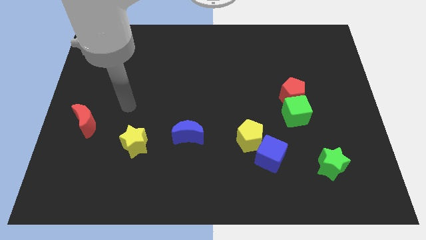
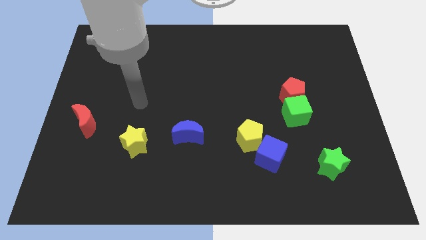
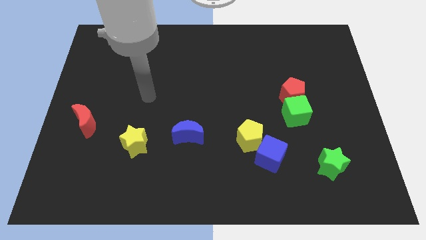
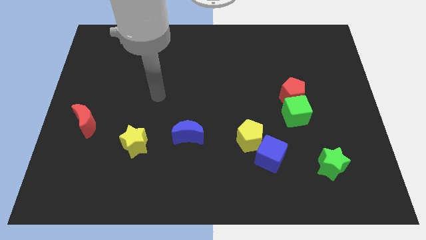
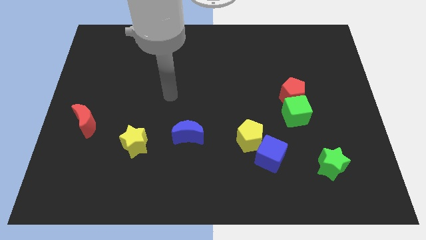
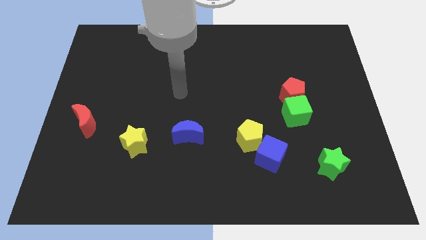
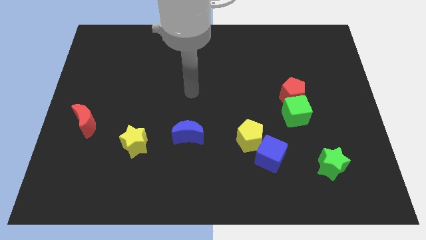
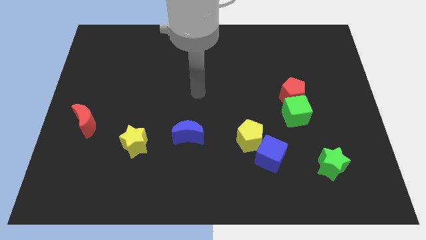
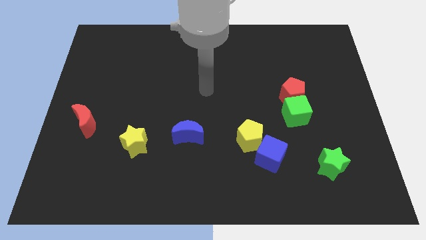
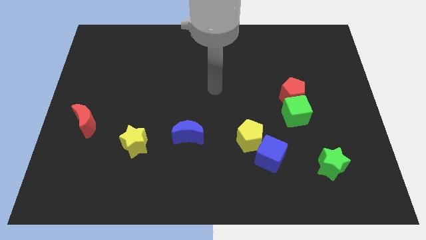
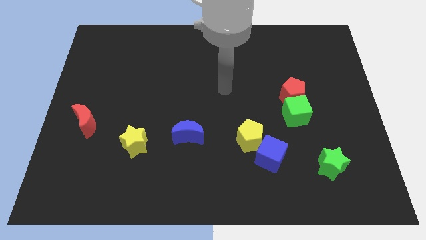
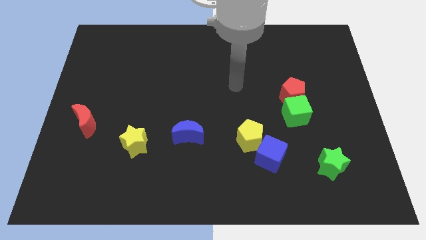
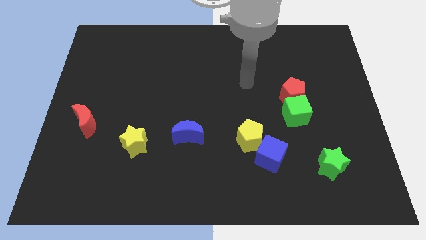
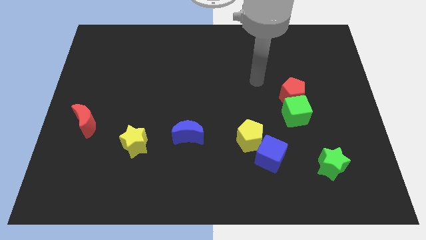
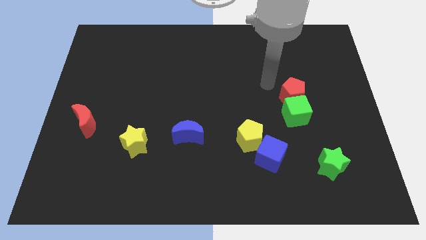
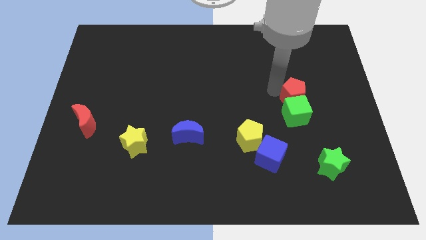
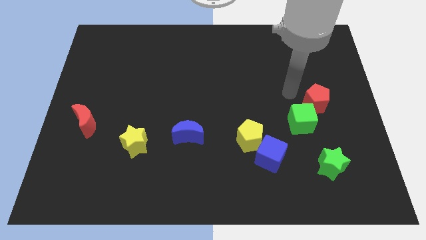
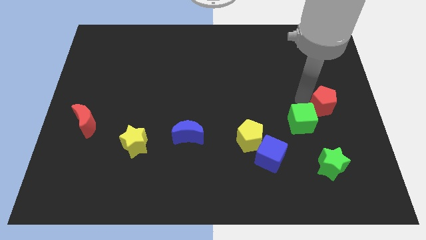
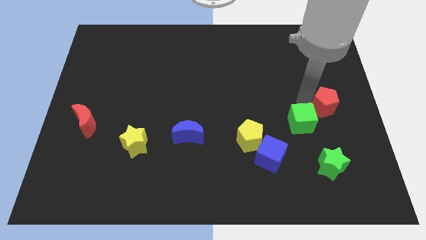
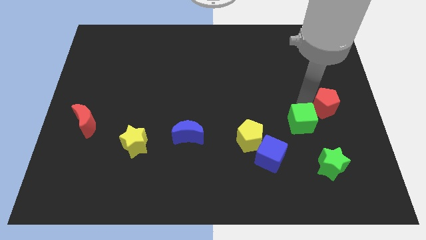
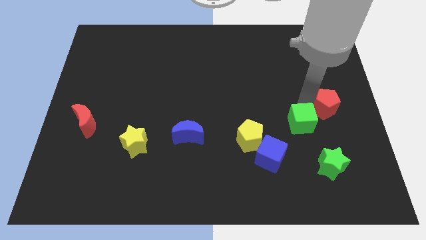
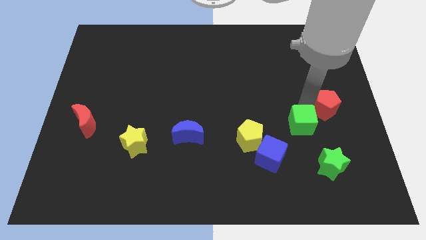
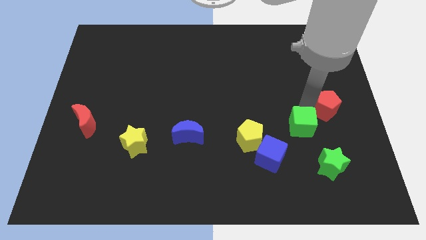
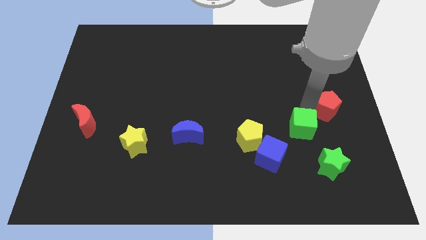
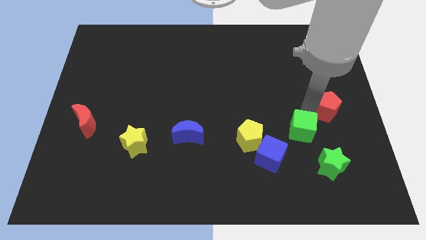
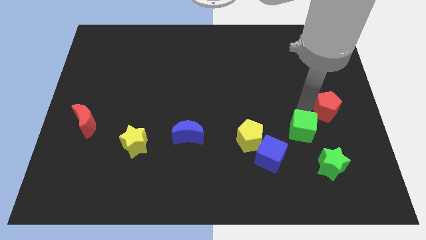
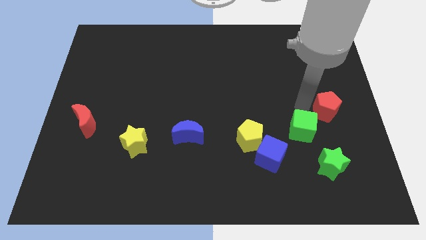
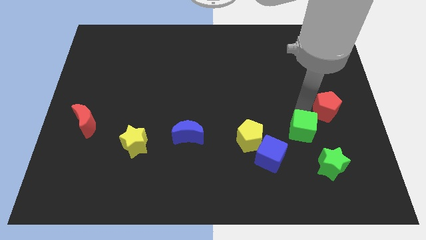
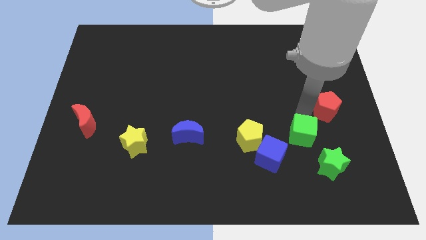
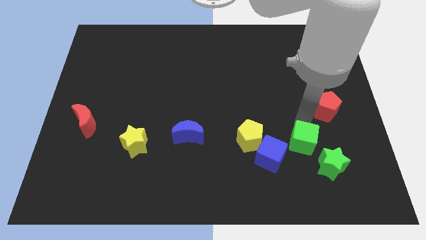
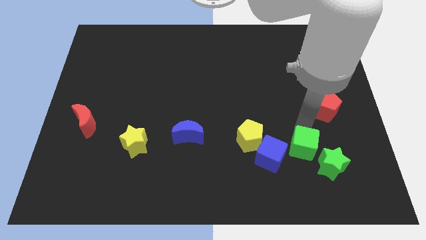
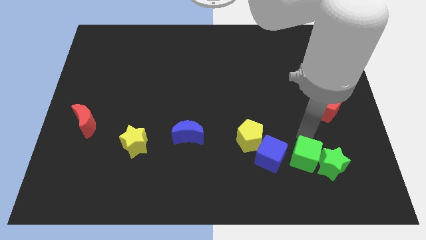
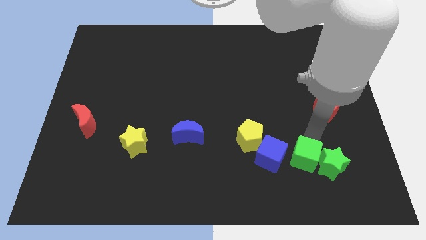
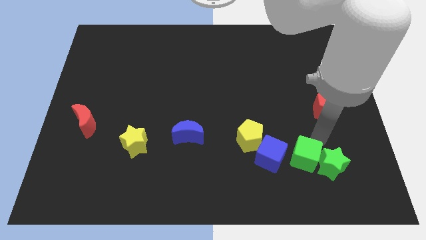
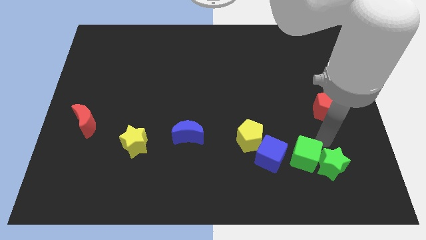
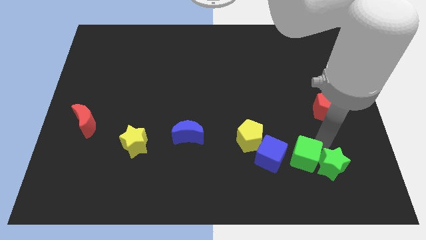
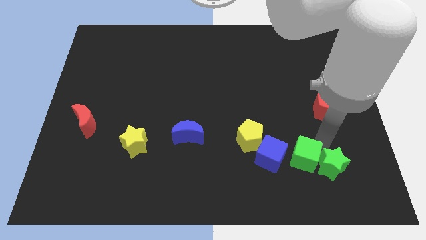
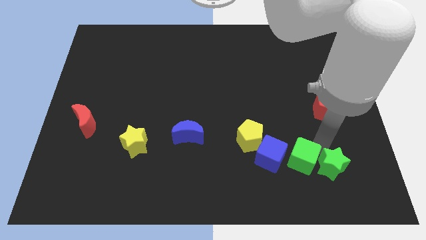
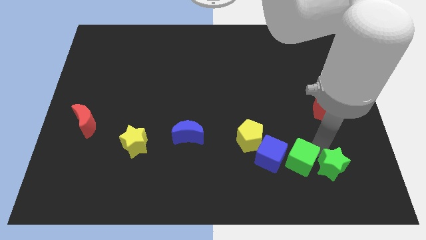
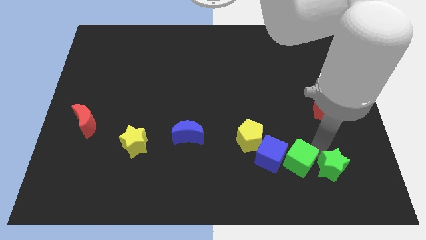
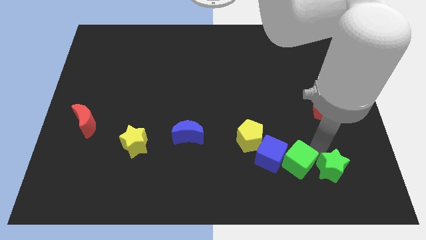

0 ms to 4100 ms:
slide the green cube diagonally downwards and left a bit

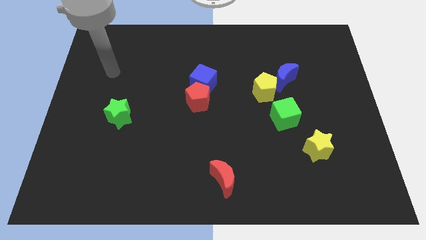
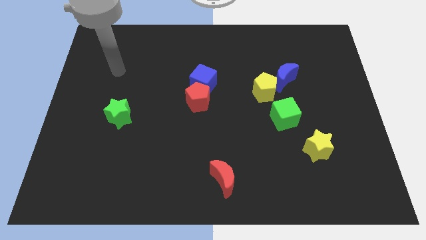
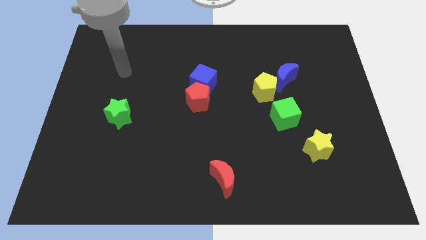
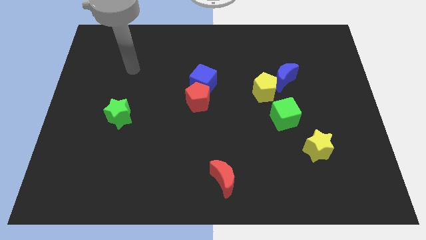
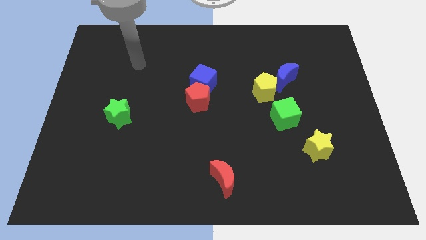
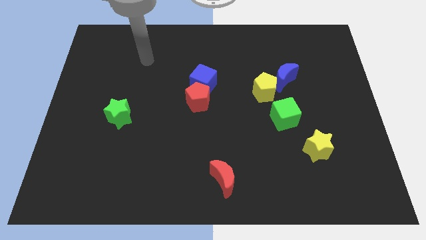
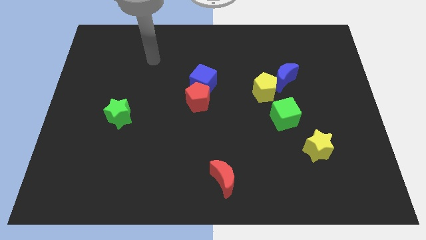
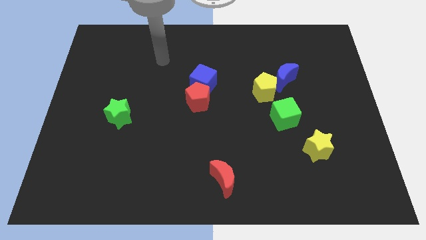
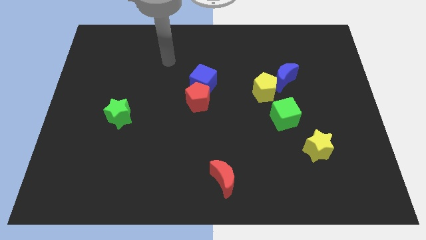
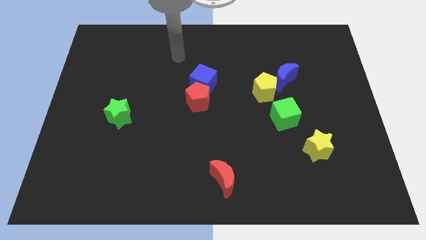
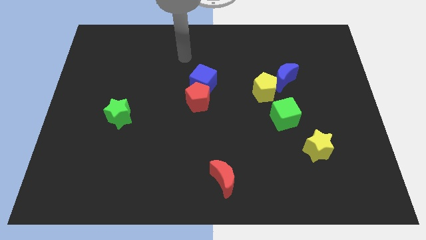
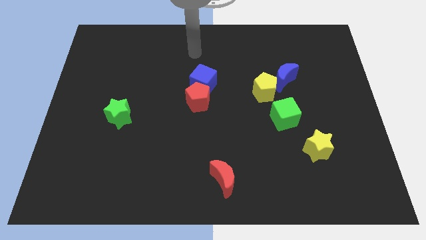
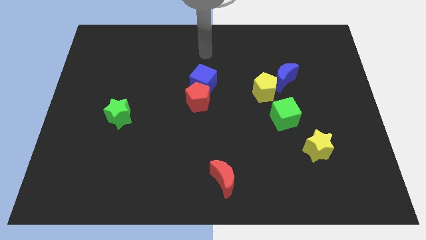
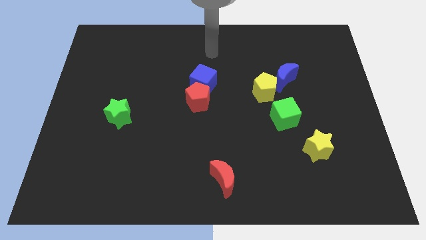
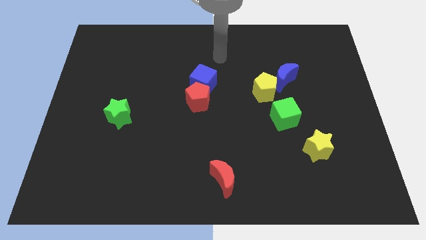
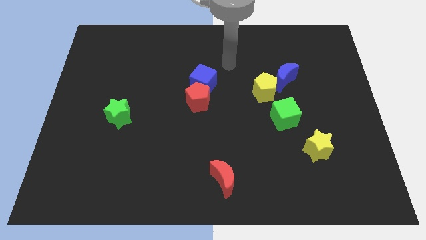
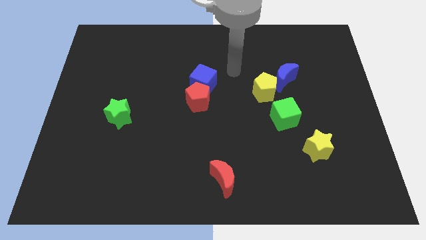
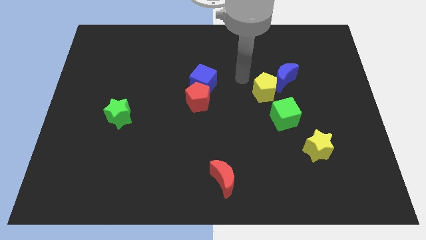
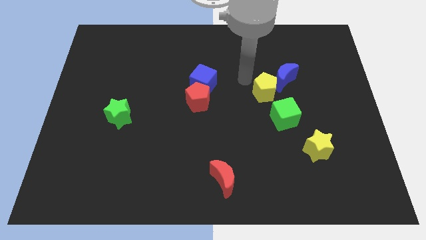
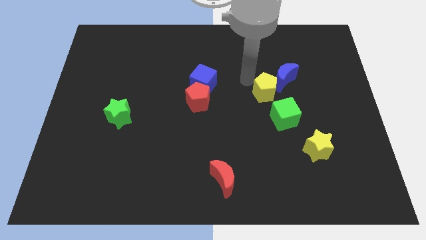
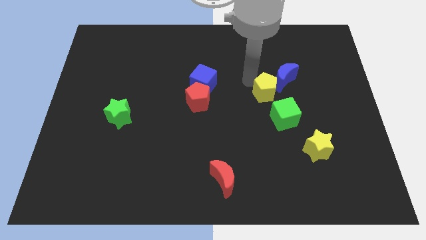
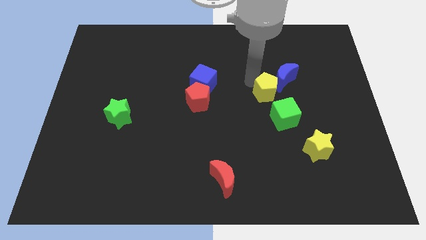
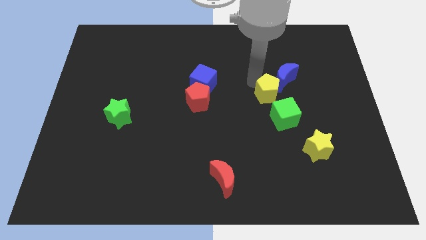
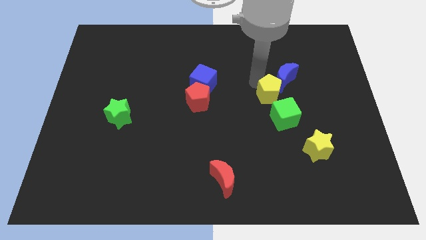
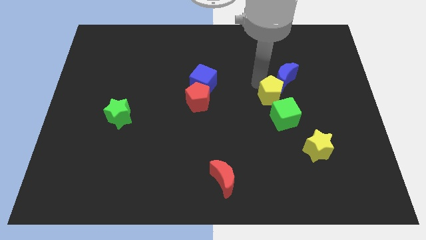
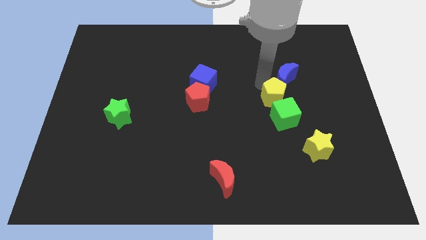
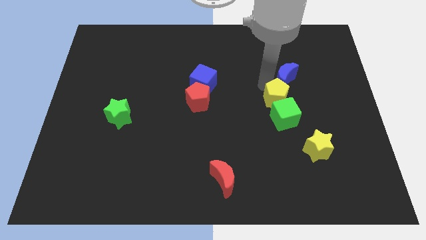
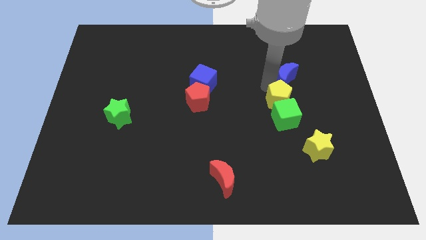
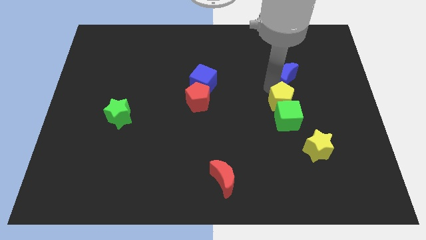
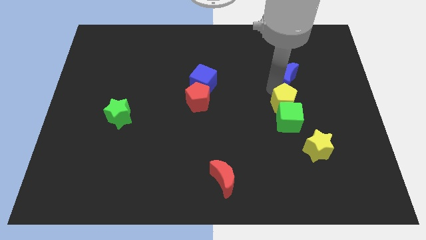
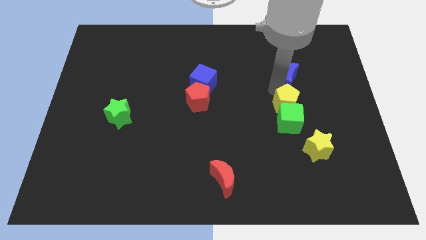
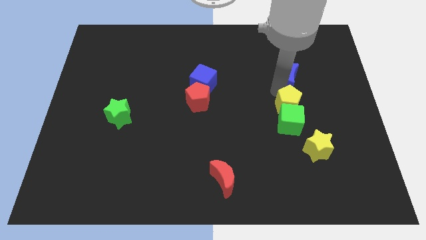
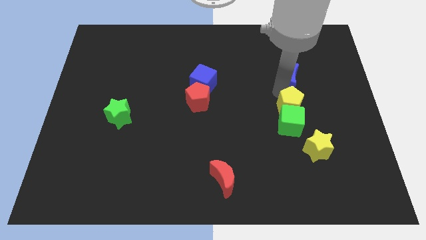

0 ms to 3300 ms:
slide the yellow pentagon a little bit down and right

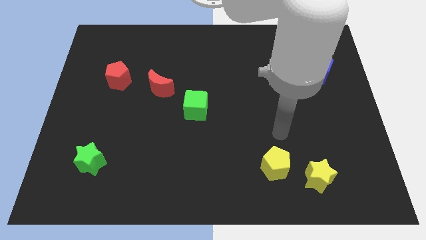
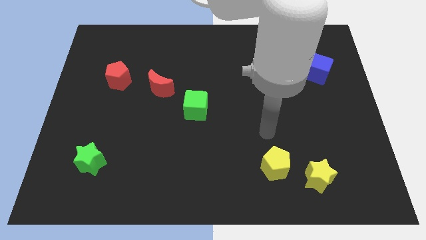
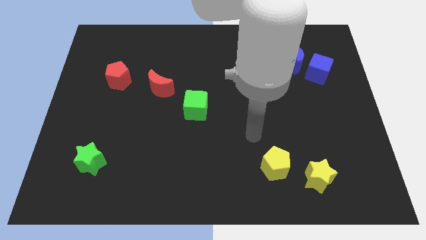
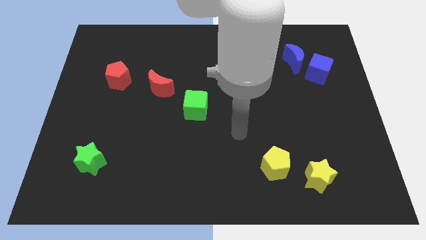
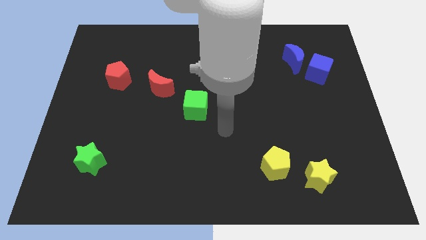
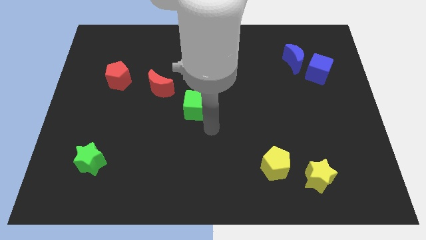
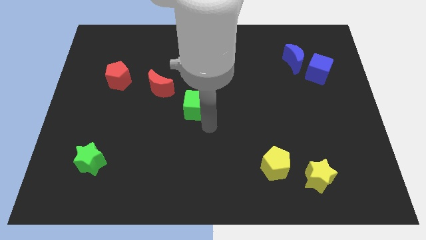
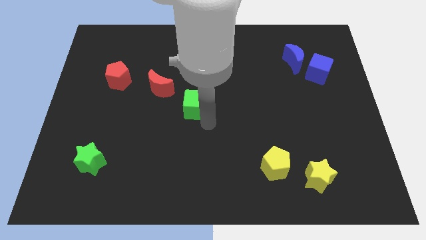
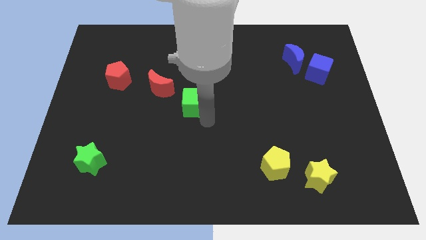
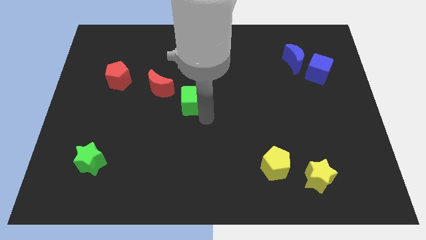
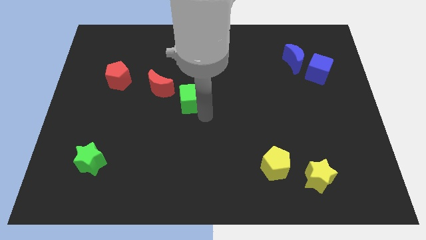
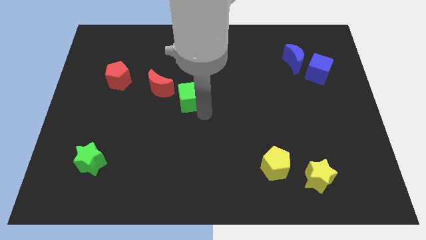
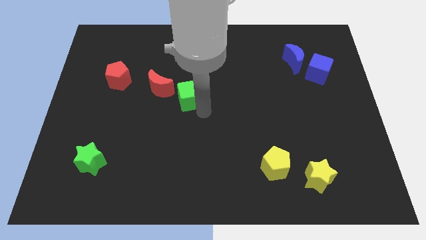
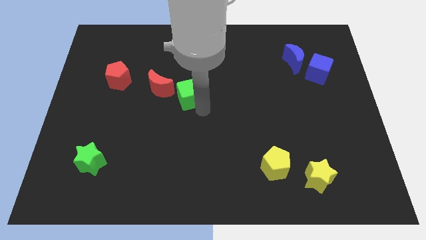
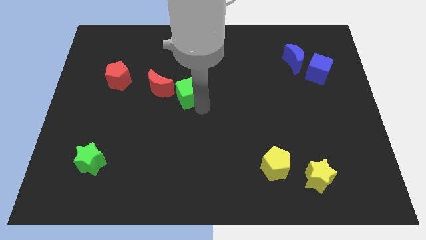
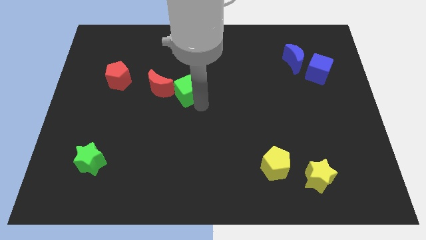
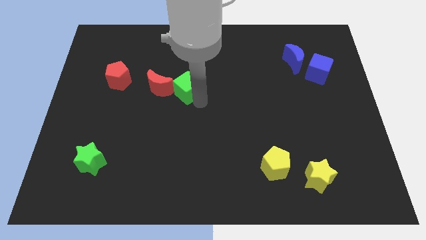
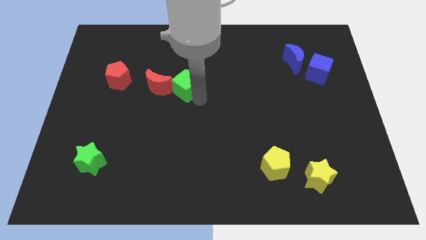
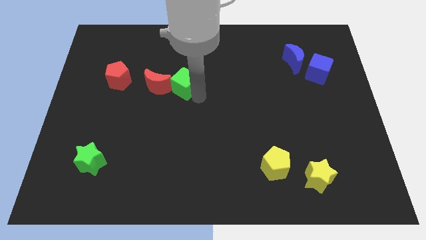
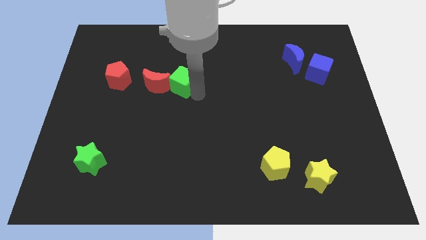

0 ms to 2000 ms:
slightly push the green cube diagonally up and left
